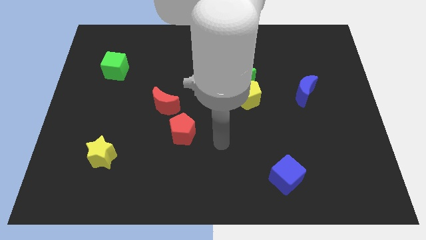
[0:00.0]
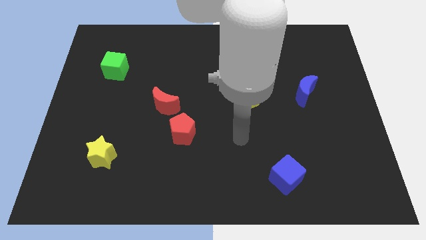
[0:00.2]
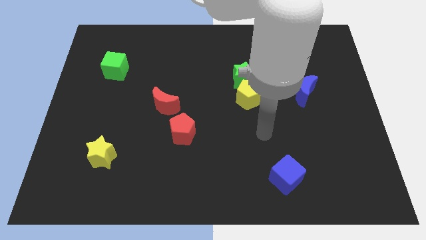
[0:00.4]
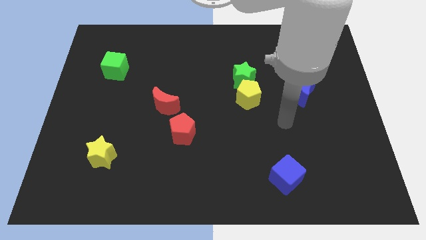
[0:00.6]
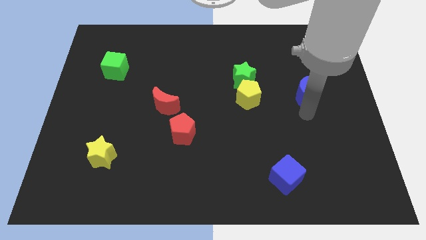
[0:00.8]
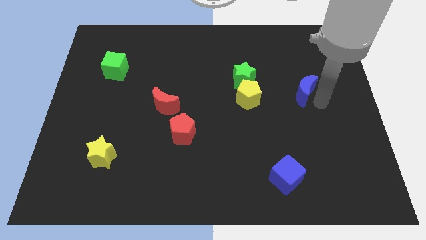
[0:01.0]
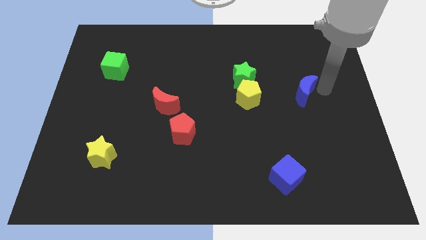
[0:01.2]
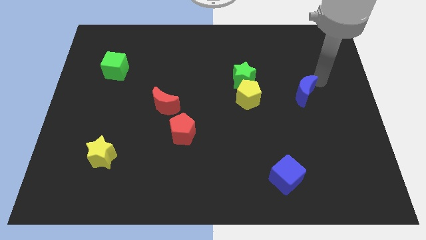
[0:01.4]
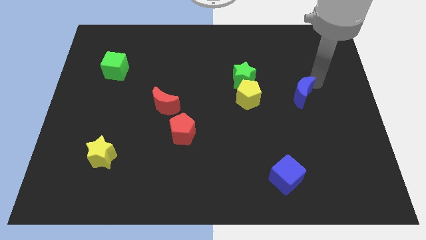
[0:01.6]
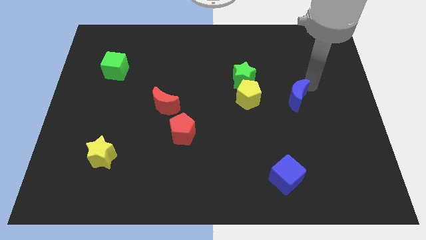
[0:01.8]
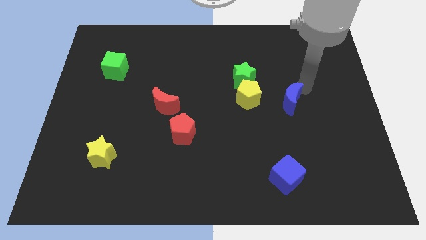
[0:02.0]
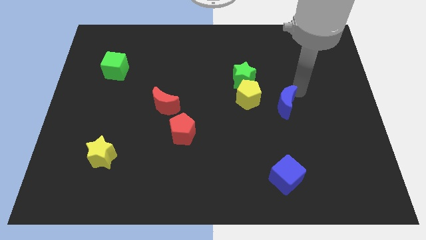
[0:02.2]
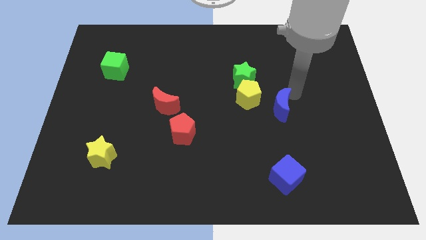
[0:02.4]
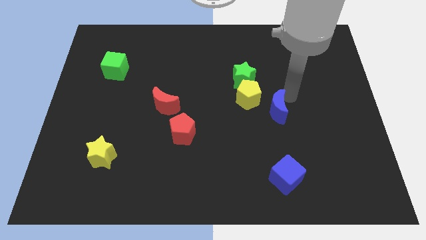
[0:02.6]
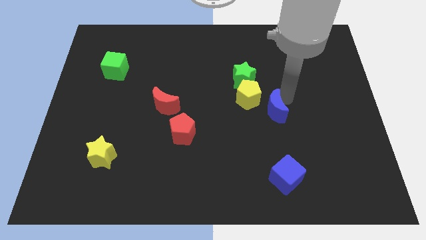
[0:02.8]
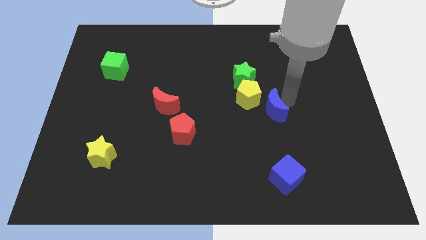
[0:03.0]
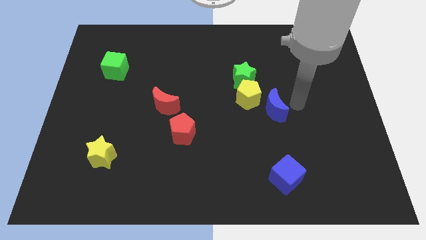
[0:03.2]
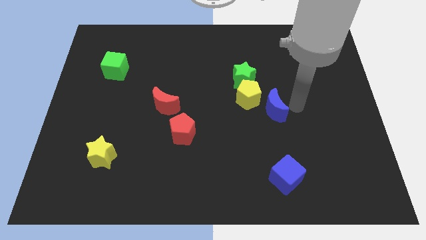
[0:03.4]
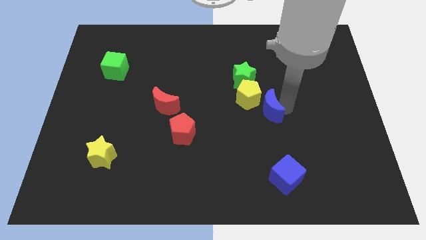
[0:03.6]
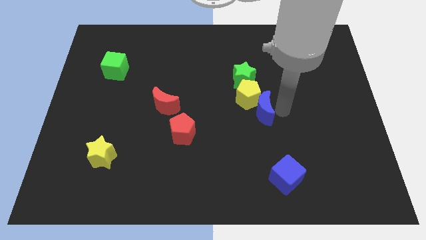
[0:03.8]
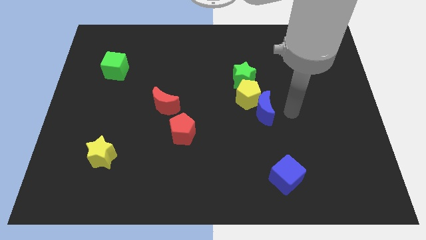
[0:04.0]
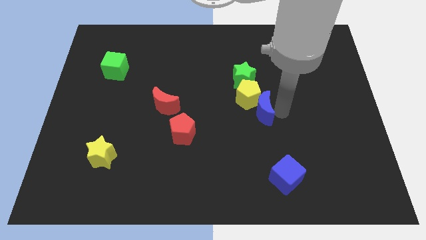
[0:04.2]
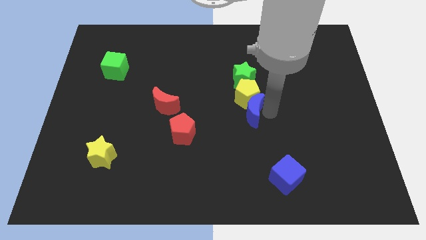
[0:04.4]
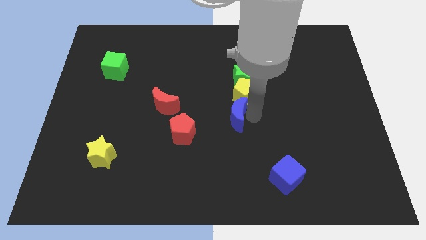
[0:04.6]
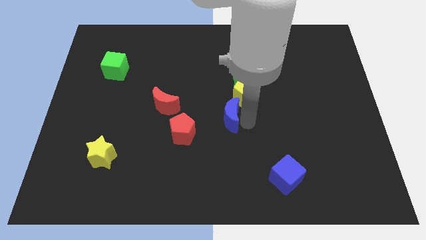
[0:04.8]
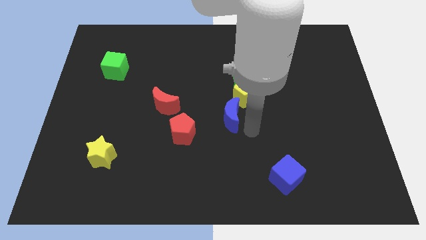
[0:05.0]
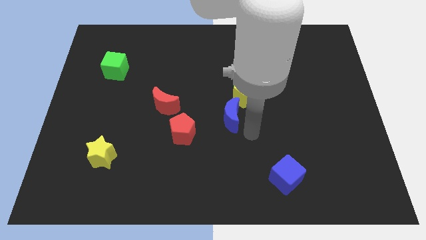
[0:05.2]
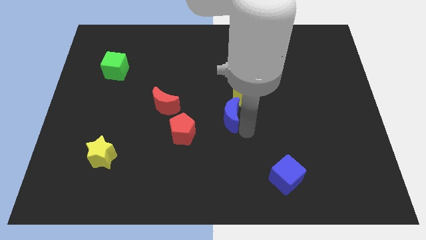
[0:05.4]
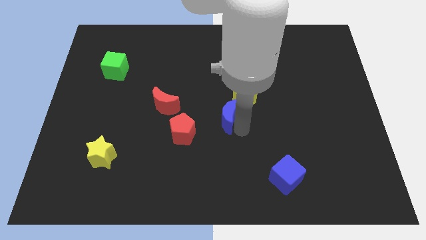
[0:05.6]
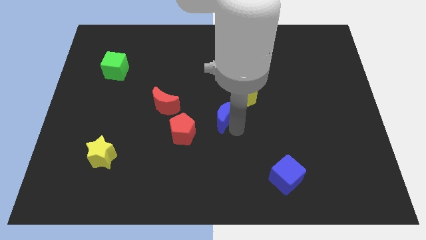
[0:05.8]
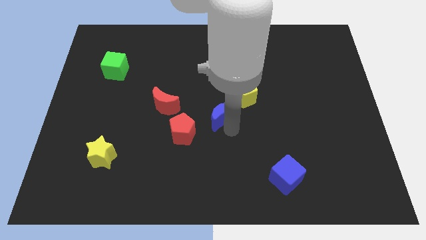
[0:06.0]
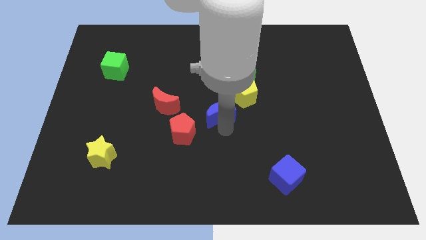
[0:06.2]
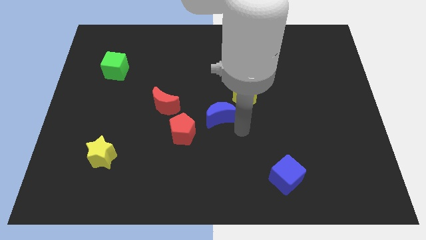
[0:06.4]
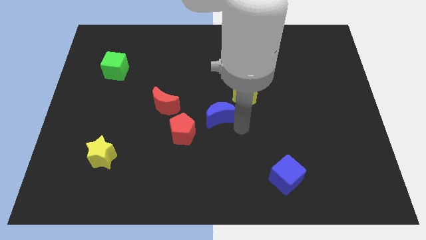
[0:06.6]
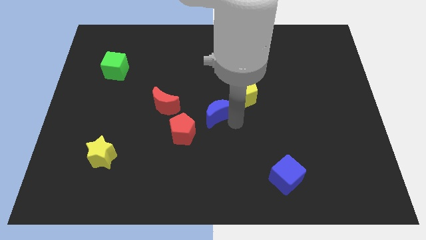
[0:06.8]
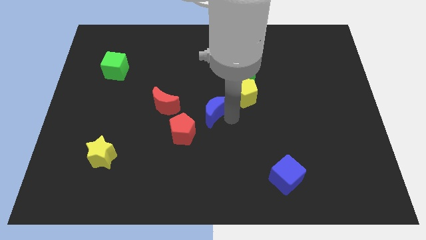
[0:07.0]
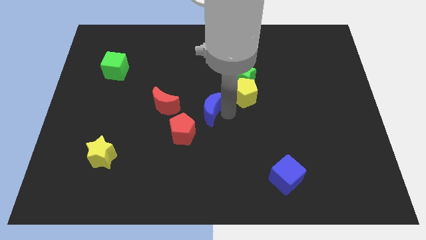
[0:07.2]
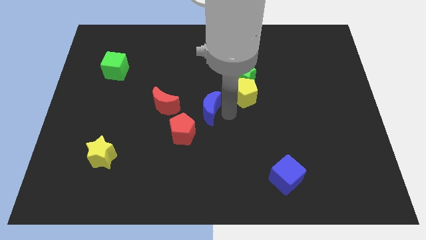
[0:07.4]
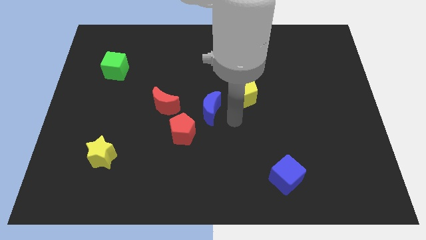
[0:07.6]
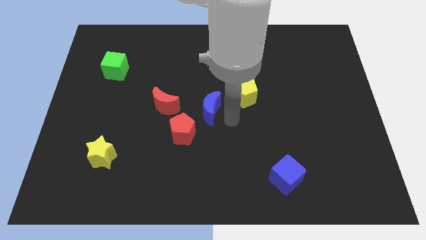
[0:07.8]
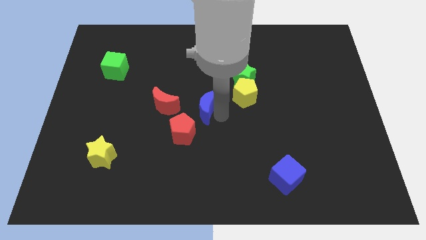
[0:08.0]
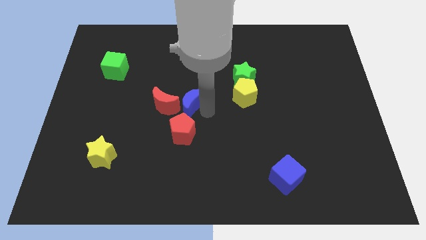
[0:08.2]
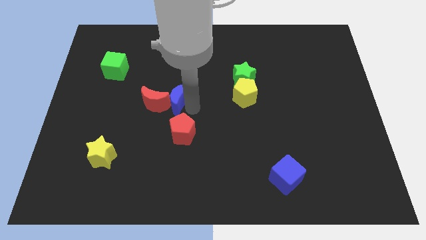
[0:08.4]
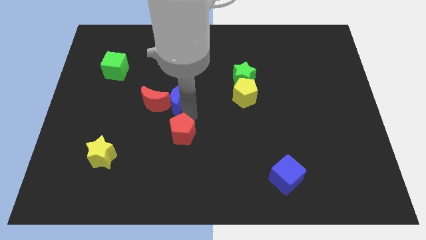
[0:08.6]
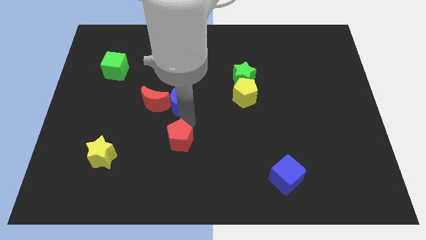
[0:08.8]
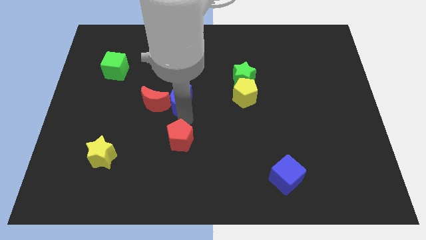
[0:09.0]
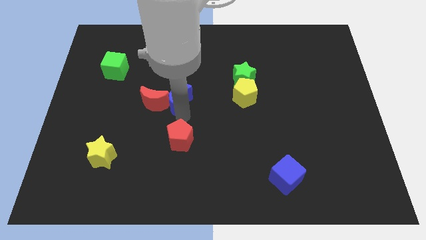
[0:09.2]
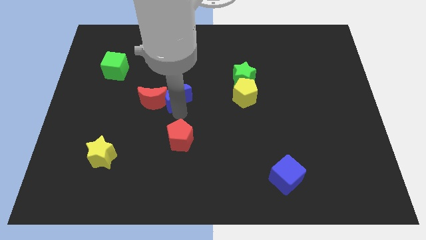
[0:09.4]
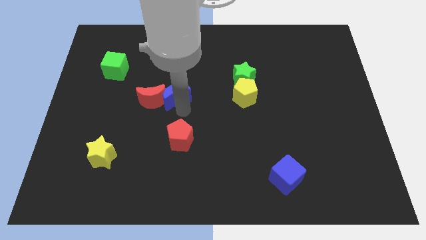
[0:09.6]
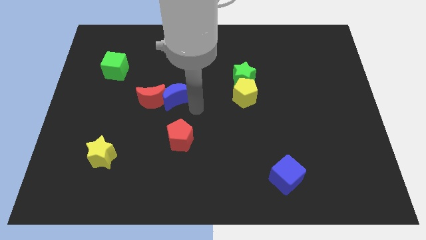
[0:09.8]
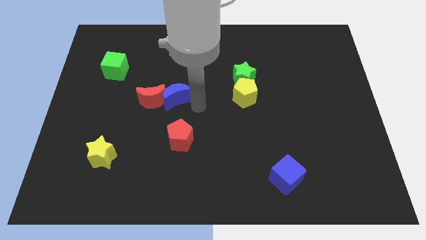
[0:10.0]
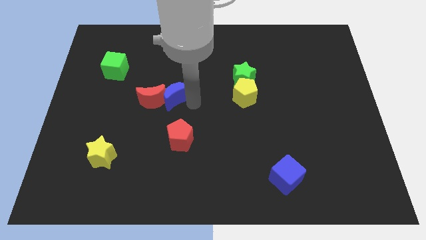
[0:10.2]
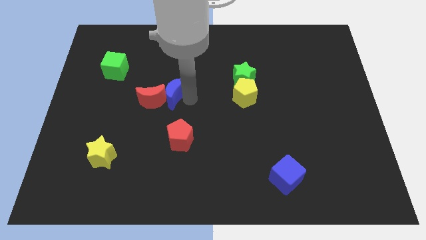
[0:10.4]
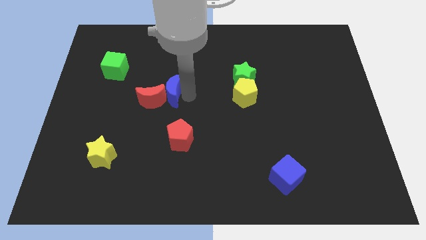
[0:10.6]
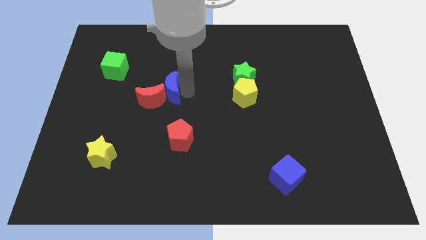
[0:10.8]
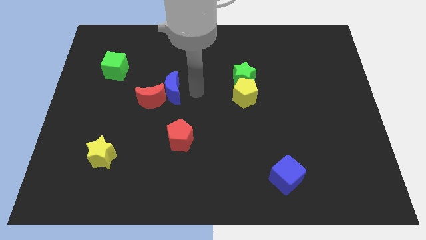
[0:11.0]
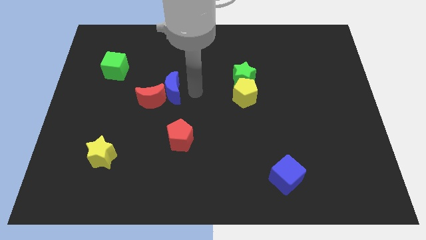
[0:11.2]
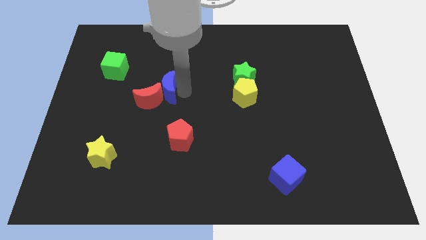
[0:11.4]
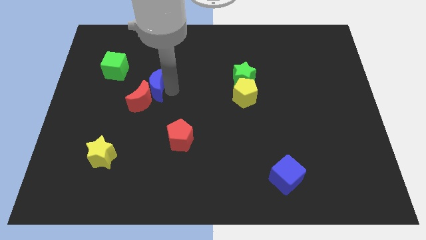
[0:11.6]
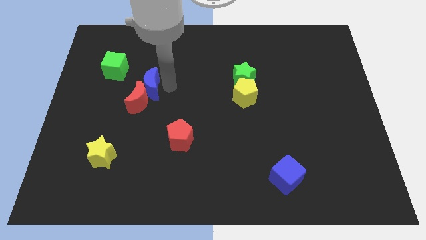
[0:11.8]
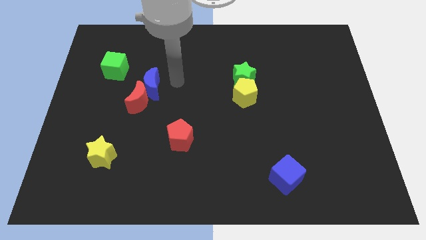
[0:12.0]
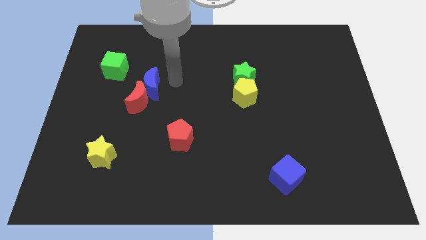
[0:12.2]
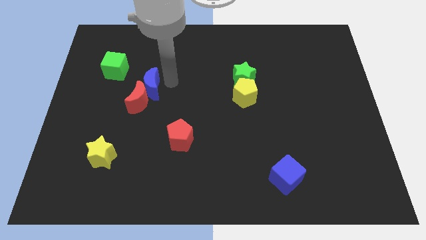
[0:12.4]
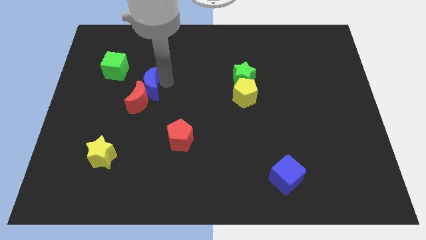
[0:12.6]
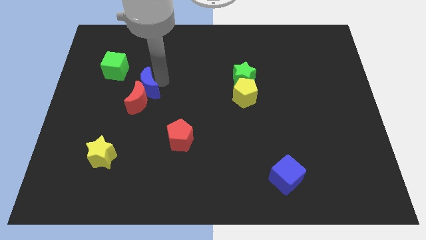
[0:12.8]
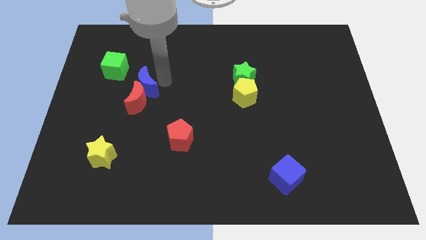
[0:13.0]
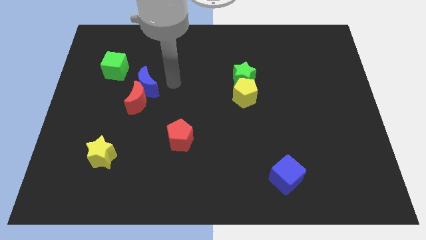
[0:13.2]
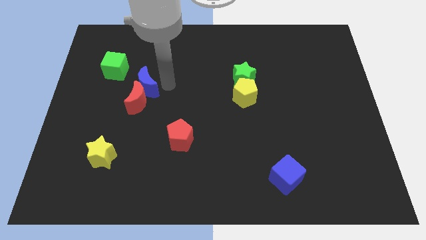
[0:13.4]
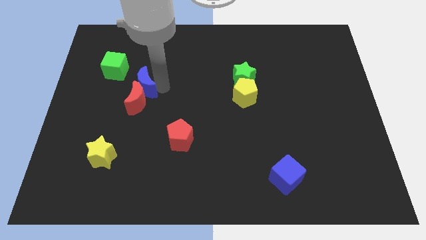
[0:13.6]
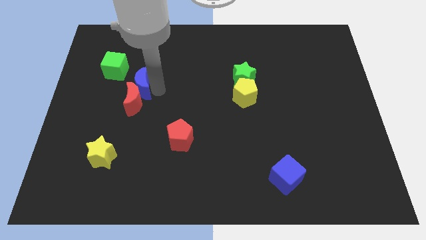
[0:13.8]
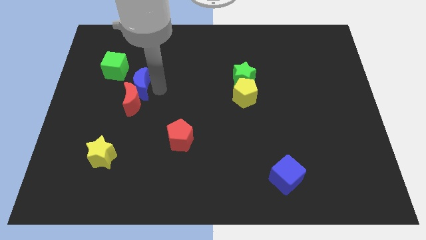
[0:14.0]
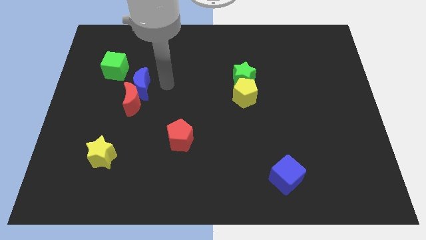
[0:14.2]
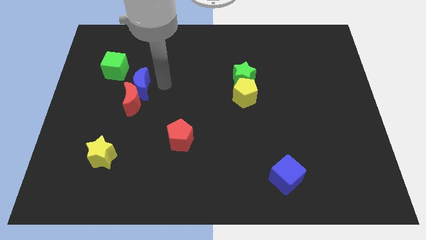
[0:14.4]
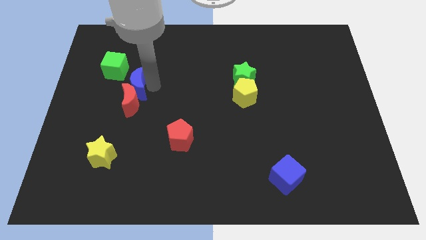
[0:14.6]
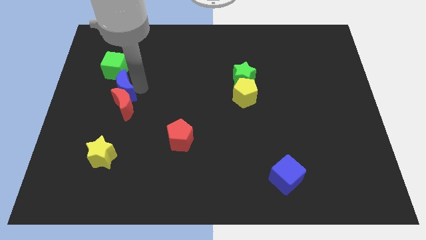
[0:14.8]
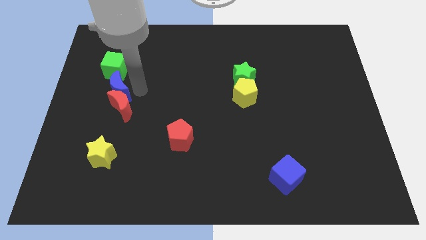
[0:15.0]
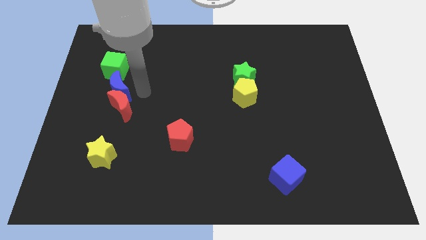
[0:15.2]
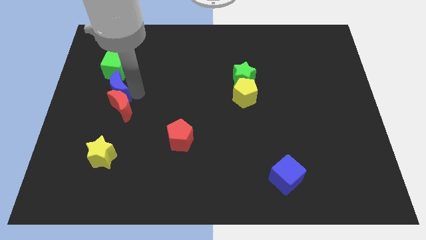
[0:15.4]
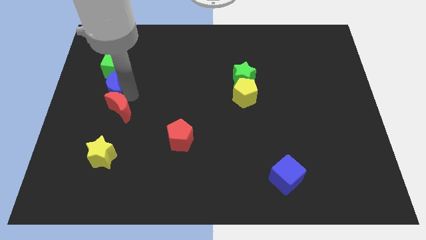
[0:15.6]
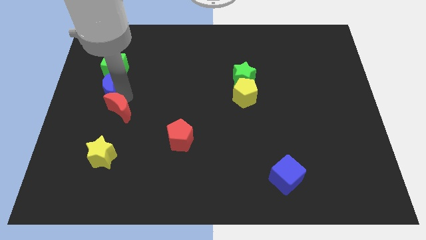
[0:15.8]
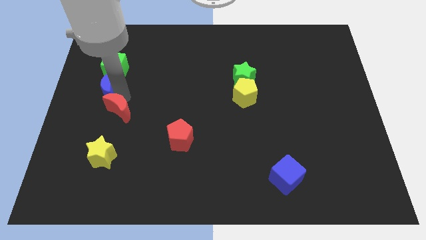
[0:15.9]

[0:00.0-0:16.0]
slide the blue moon to the left side
